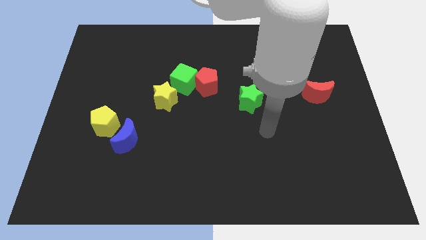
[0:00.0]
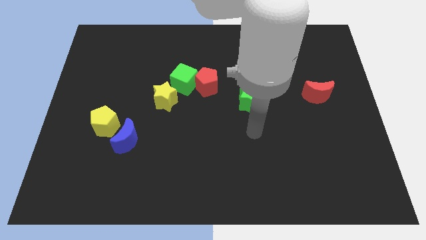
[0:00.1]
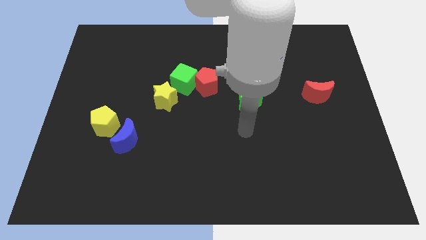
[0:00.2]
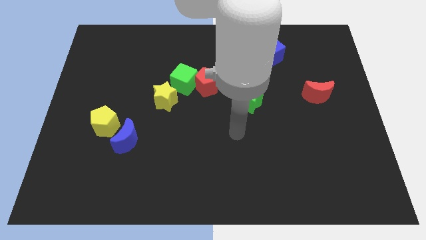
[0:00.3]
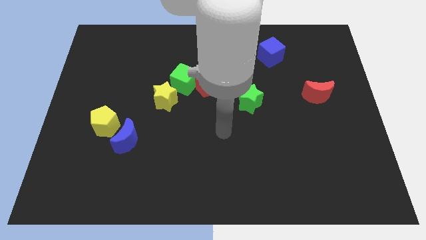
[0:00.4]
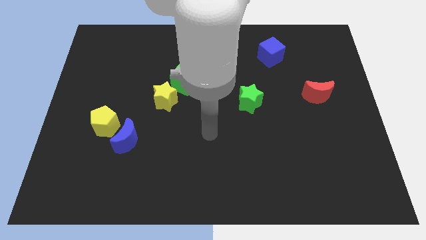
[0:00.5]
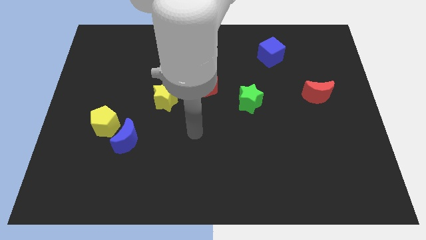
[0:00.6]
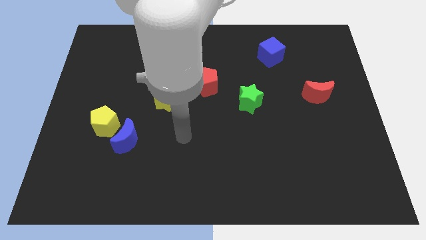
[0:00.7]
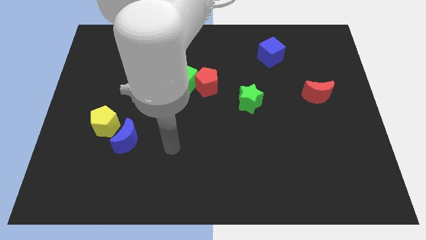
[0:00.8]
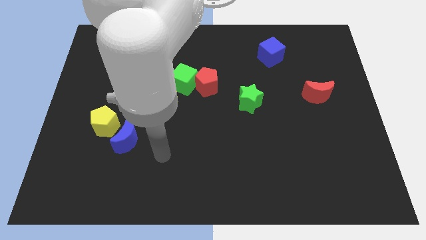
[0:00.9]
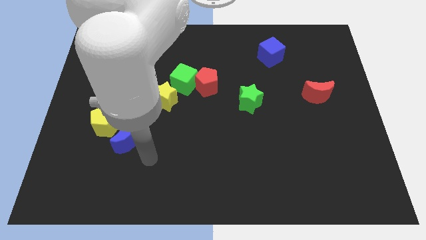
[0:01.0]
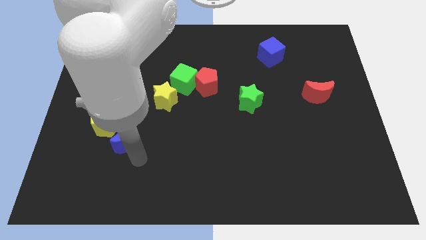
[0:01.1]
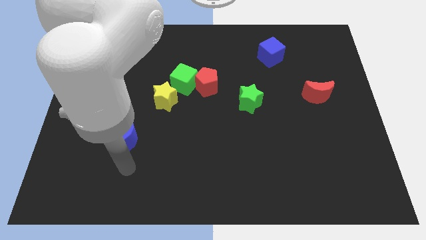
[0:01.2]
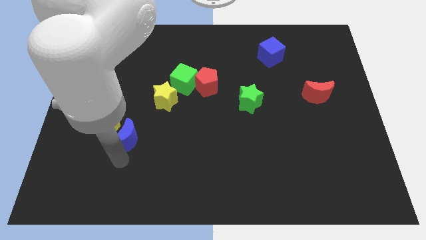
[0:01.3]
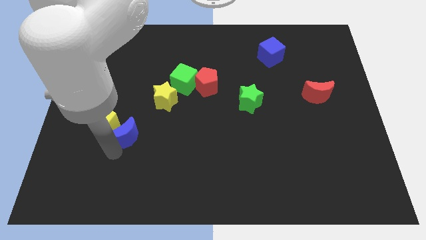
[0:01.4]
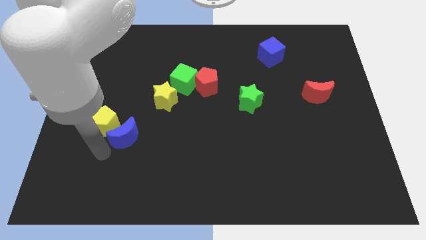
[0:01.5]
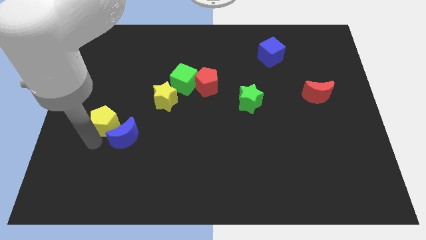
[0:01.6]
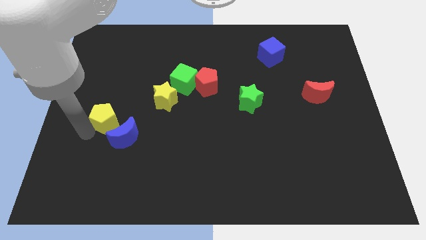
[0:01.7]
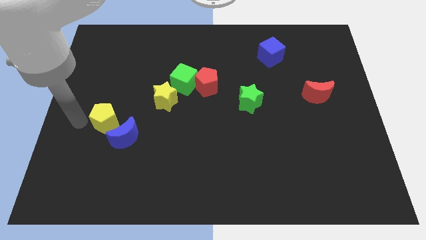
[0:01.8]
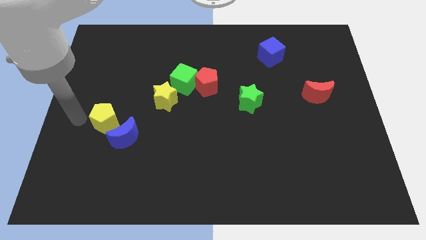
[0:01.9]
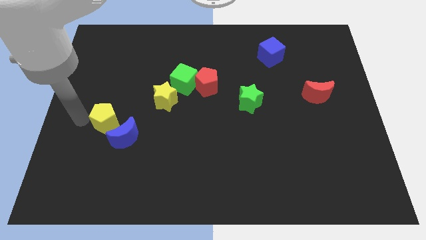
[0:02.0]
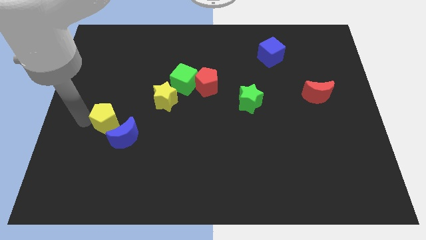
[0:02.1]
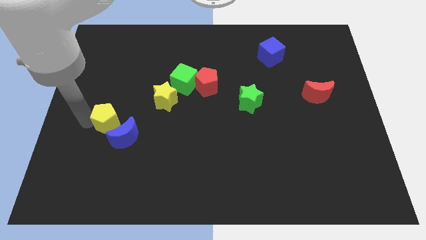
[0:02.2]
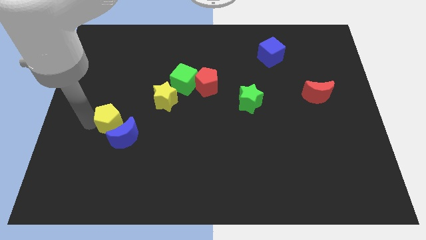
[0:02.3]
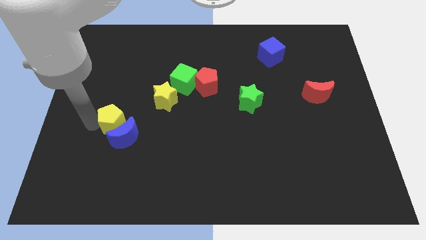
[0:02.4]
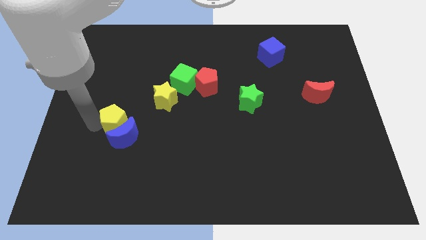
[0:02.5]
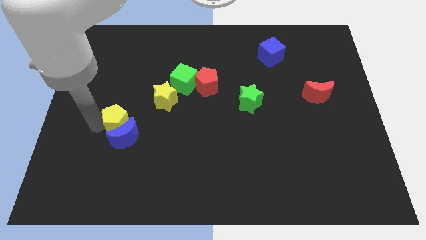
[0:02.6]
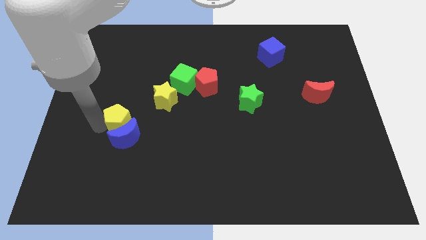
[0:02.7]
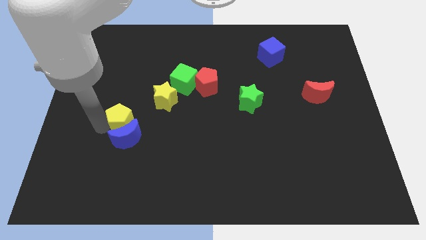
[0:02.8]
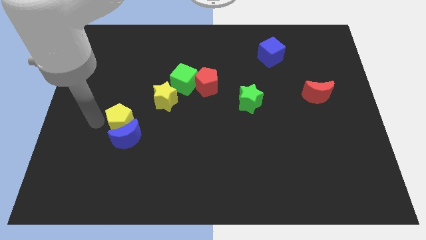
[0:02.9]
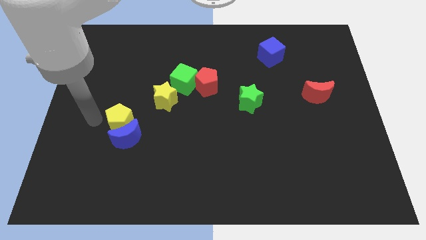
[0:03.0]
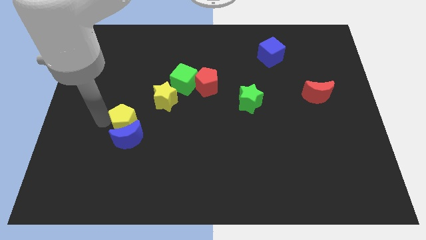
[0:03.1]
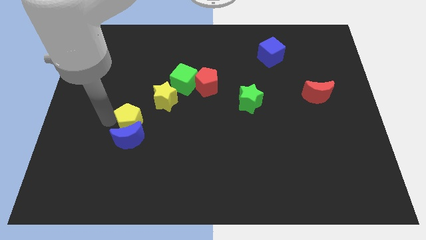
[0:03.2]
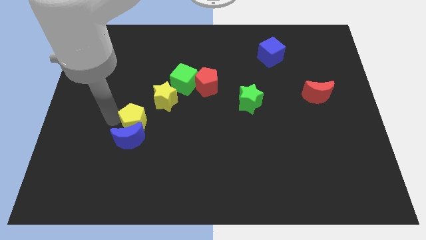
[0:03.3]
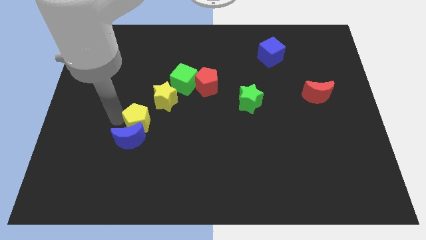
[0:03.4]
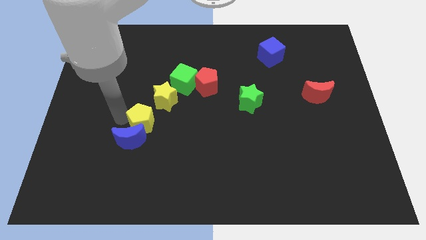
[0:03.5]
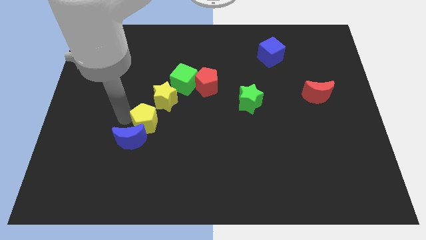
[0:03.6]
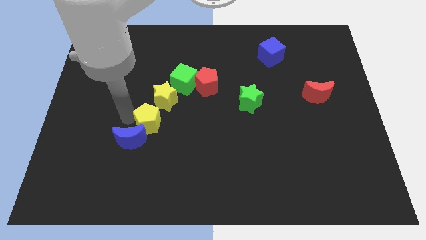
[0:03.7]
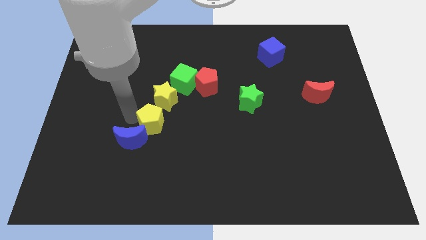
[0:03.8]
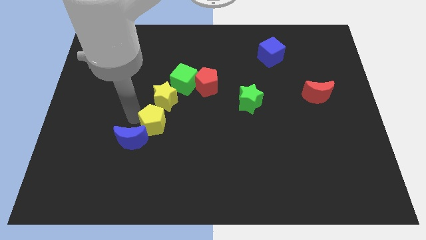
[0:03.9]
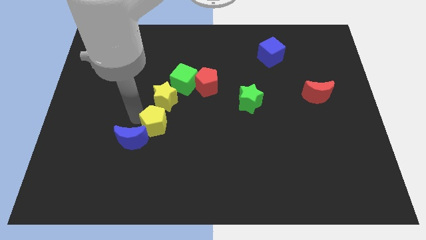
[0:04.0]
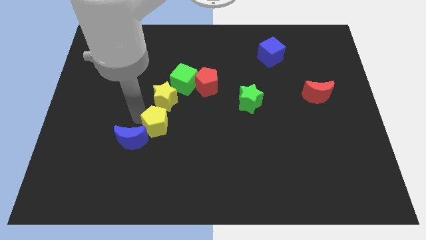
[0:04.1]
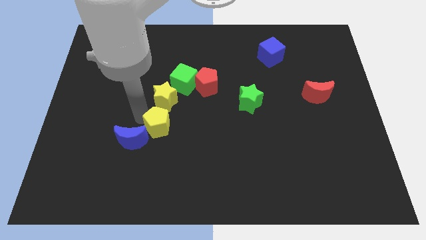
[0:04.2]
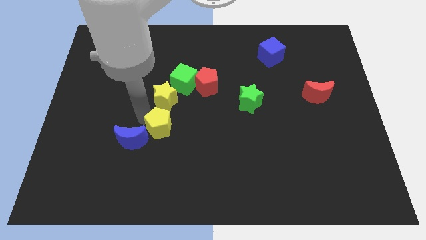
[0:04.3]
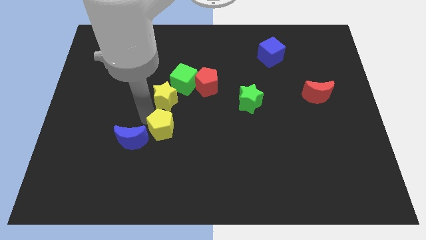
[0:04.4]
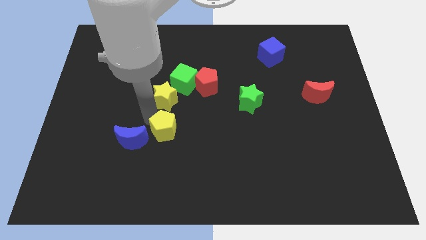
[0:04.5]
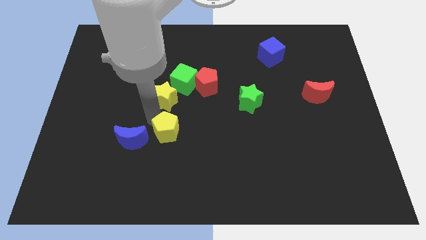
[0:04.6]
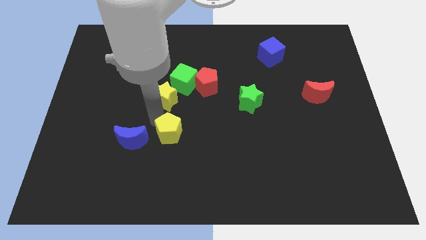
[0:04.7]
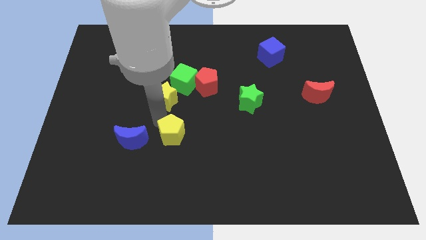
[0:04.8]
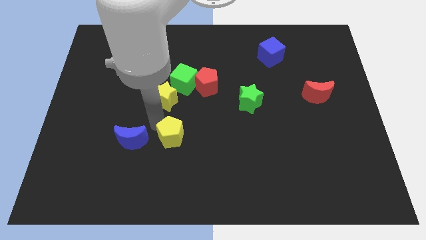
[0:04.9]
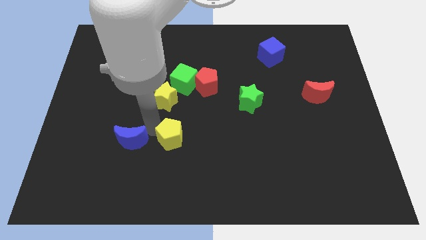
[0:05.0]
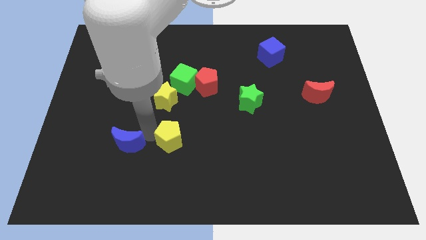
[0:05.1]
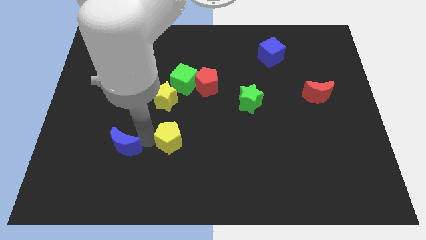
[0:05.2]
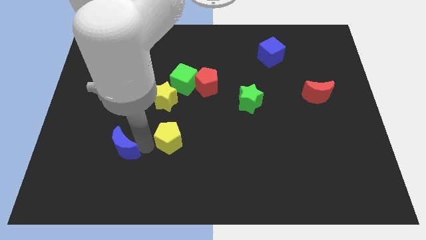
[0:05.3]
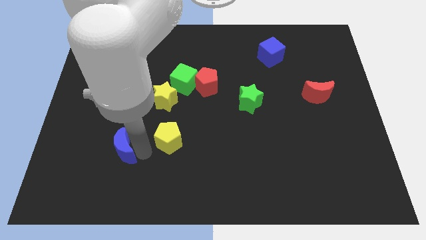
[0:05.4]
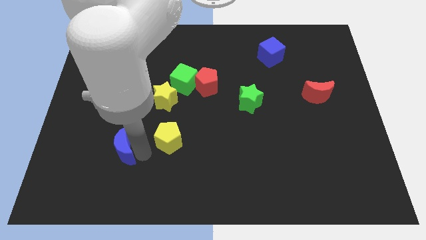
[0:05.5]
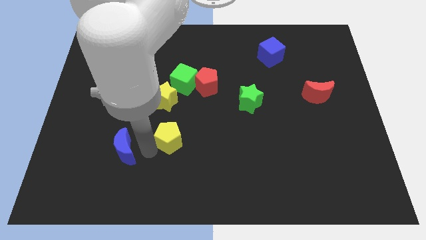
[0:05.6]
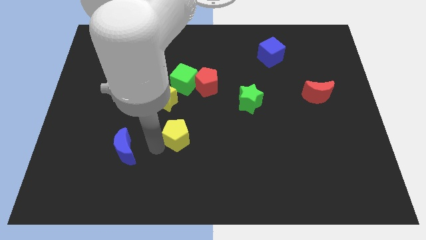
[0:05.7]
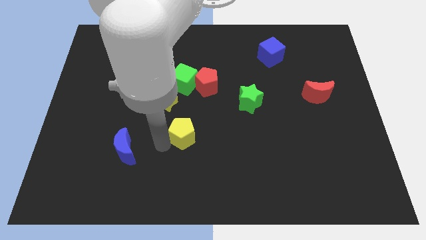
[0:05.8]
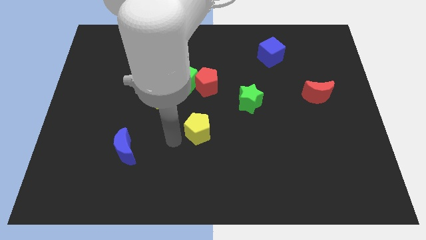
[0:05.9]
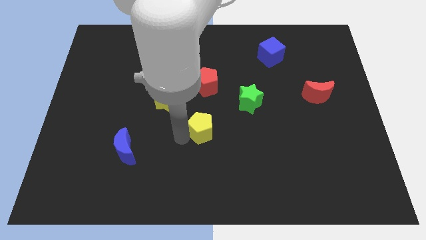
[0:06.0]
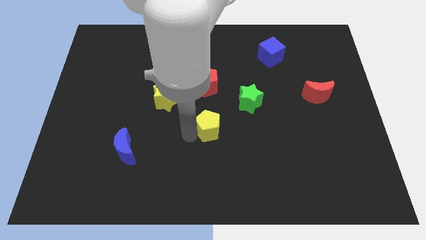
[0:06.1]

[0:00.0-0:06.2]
move the yellow pentagon to the bottom left of the green star

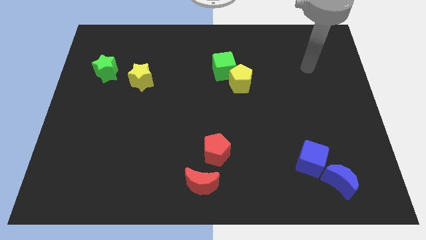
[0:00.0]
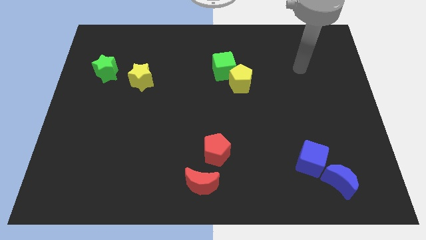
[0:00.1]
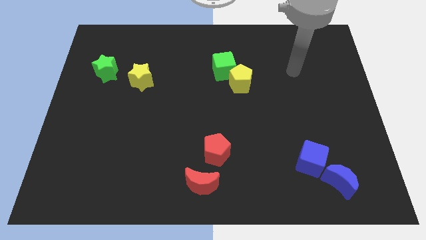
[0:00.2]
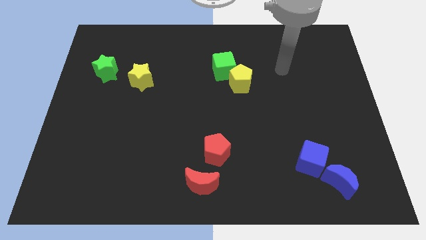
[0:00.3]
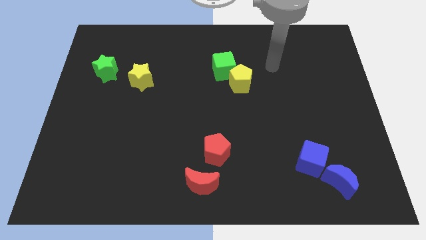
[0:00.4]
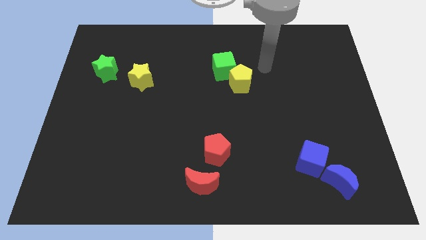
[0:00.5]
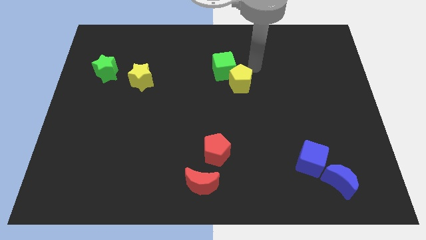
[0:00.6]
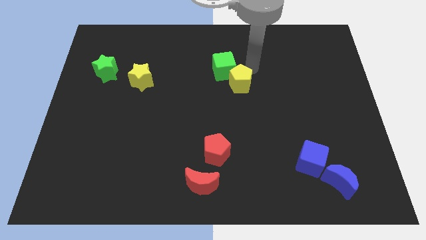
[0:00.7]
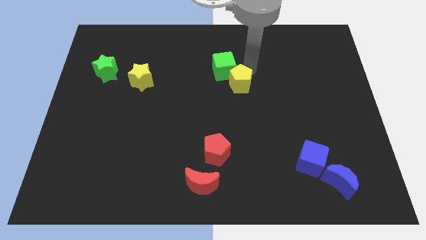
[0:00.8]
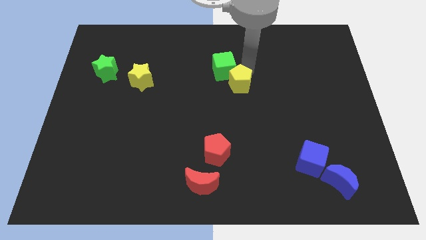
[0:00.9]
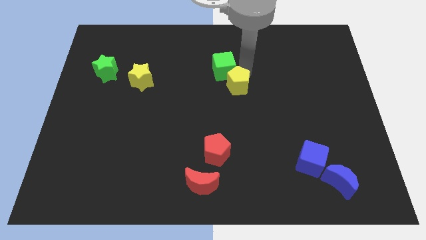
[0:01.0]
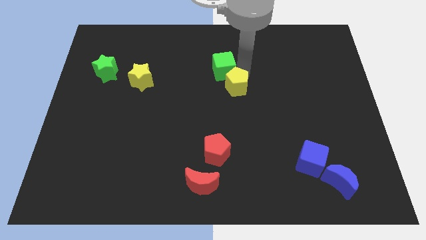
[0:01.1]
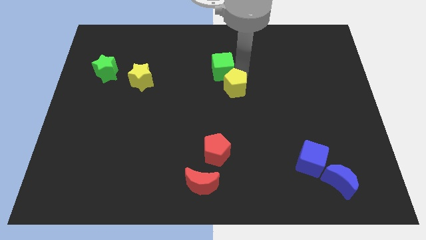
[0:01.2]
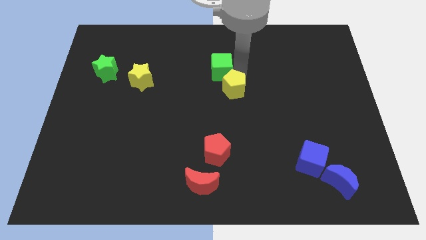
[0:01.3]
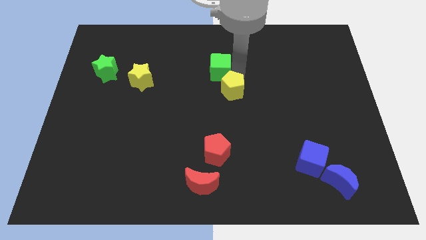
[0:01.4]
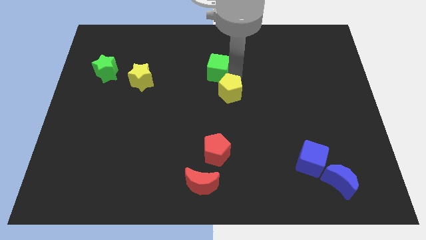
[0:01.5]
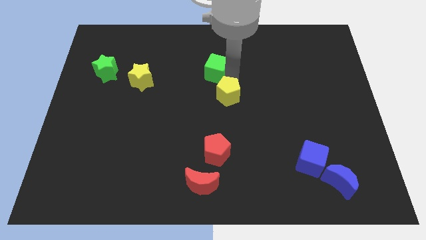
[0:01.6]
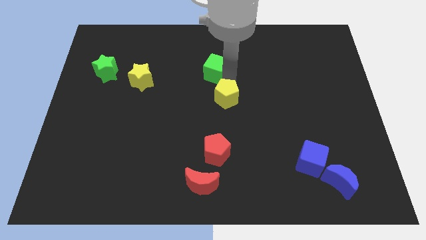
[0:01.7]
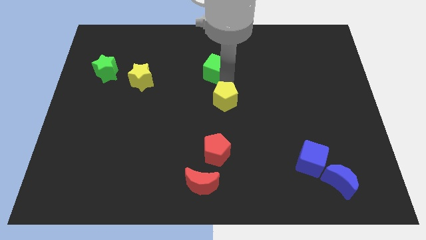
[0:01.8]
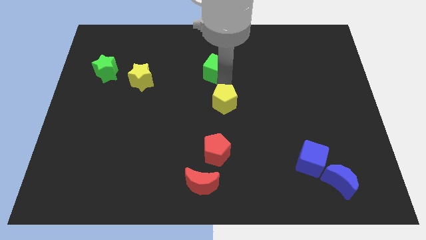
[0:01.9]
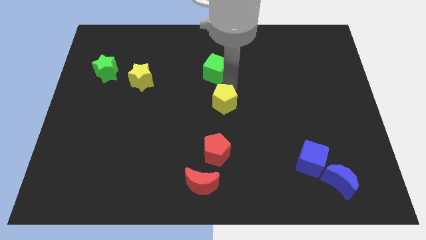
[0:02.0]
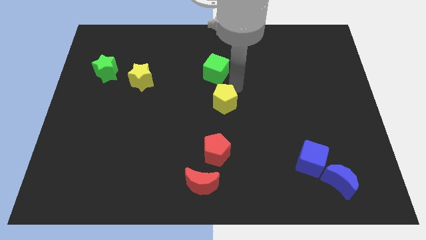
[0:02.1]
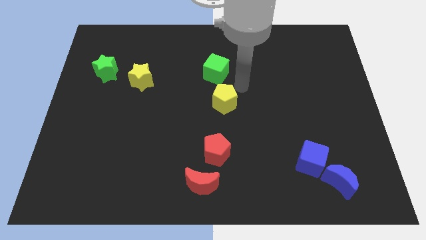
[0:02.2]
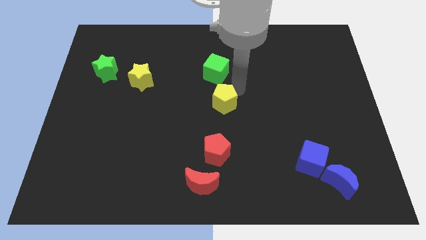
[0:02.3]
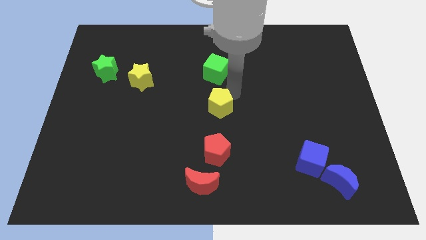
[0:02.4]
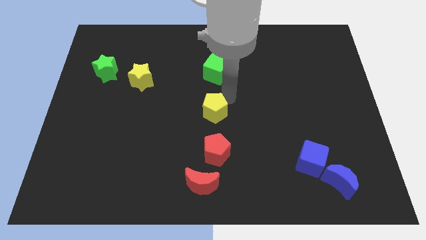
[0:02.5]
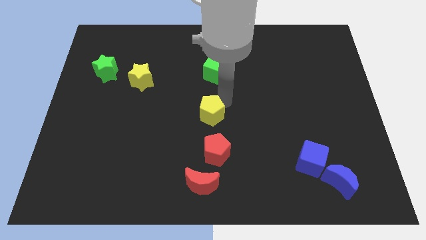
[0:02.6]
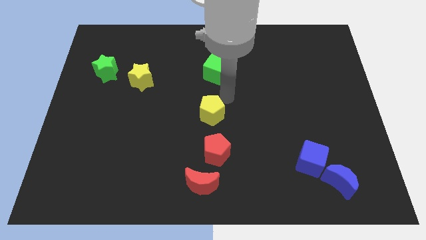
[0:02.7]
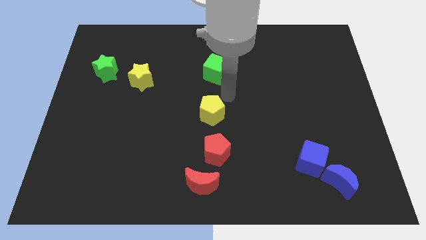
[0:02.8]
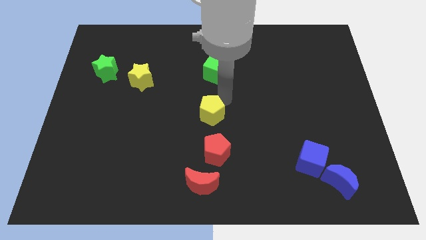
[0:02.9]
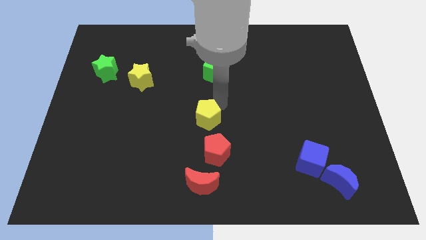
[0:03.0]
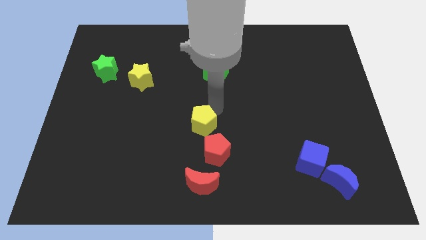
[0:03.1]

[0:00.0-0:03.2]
move the yellow pentagon to the top left of the red pentagon
